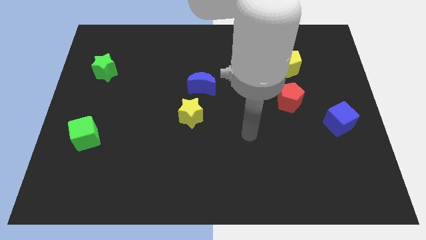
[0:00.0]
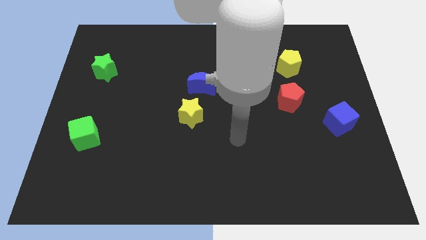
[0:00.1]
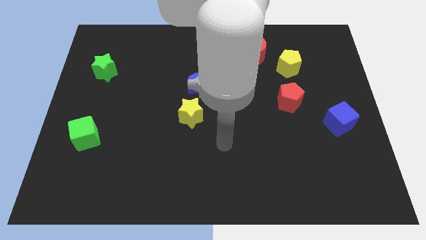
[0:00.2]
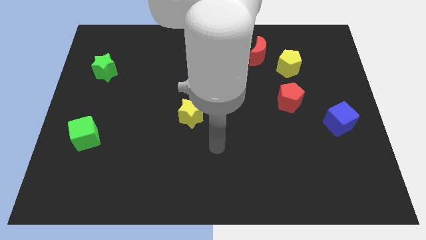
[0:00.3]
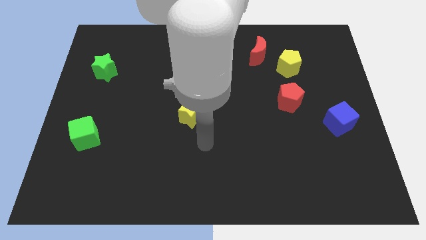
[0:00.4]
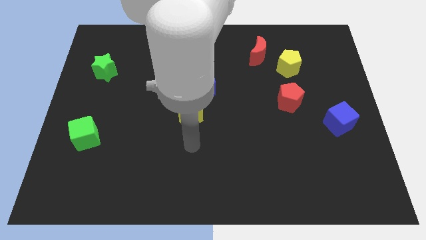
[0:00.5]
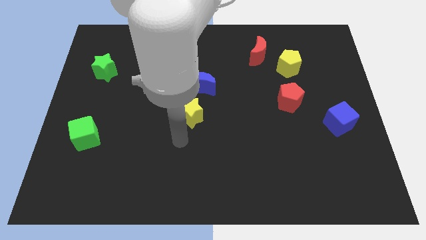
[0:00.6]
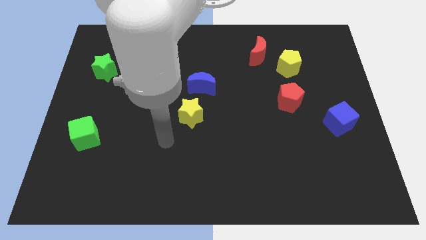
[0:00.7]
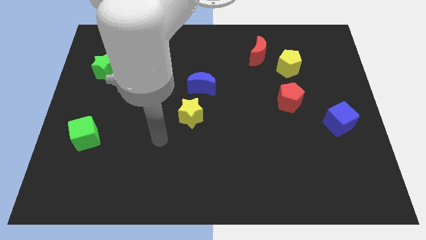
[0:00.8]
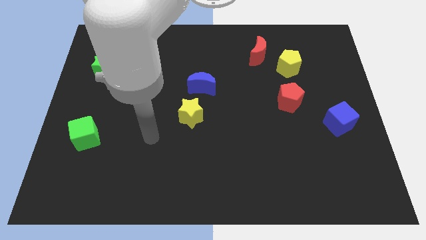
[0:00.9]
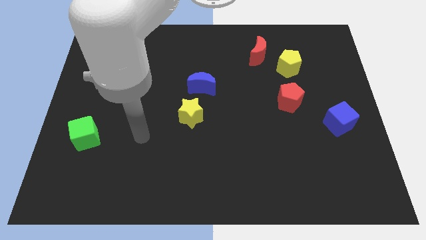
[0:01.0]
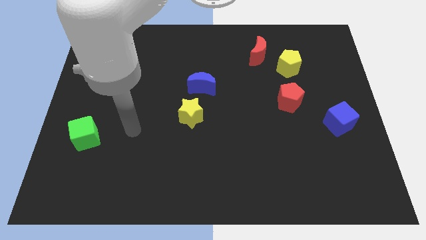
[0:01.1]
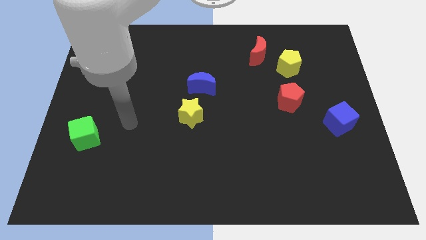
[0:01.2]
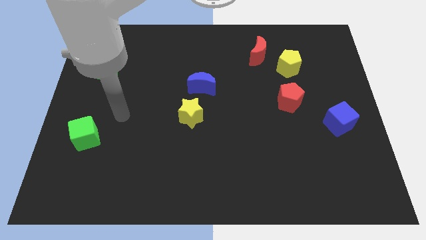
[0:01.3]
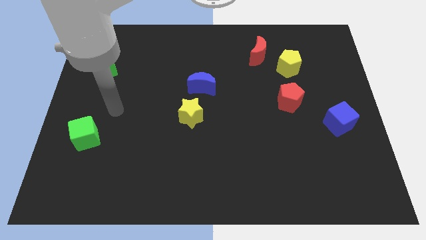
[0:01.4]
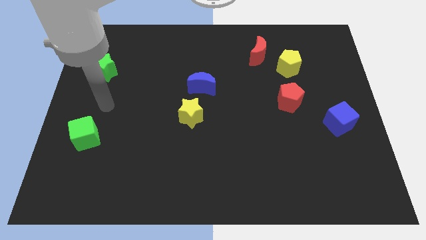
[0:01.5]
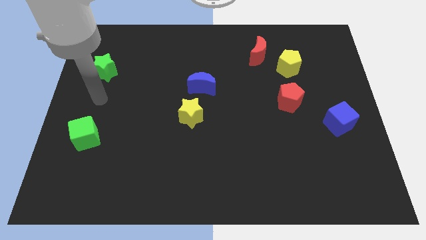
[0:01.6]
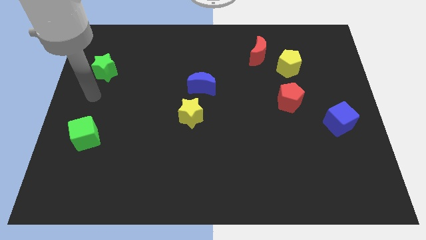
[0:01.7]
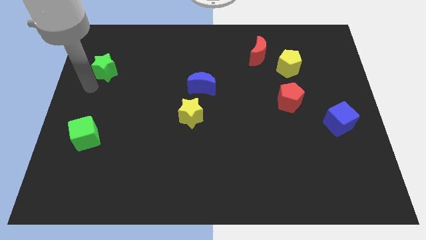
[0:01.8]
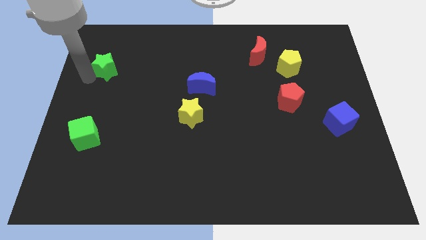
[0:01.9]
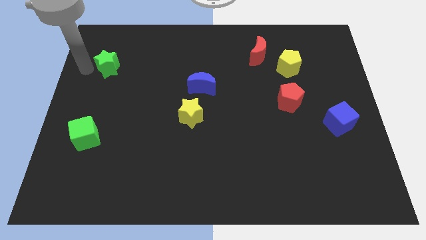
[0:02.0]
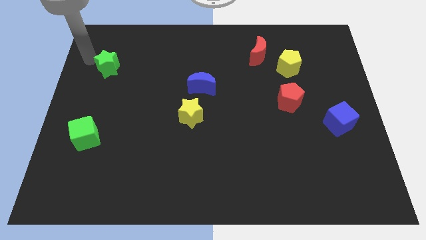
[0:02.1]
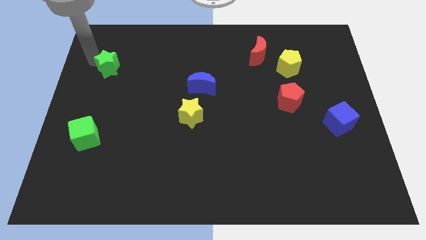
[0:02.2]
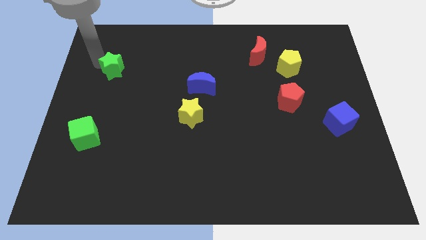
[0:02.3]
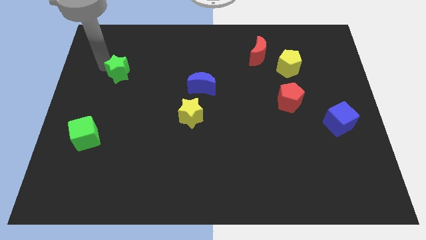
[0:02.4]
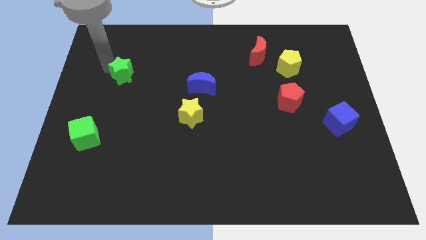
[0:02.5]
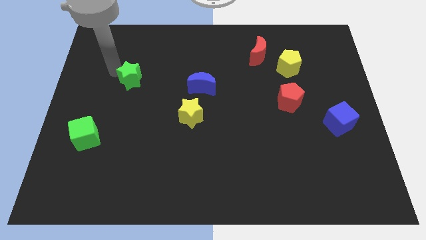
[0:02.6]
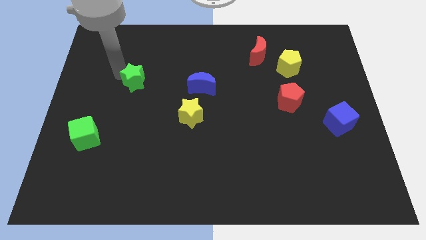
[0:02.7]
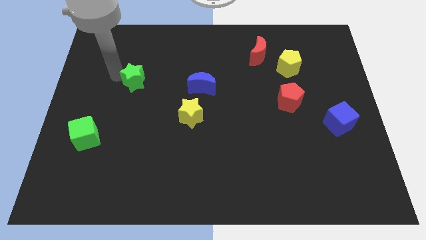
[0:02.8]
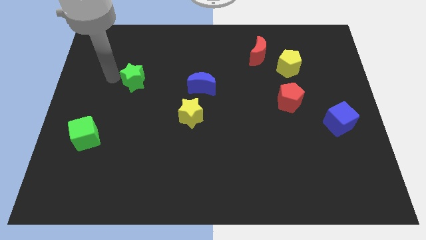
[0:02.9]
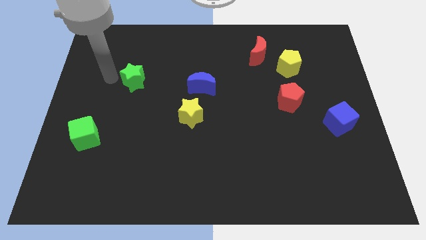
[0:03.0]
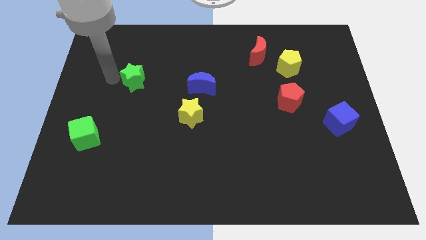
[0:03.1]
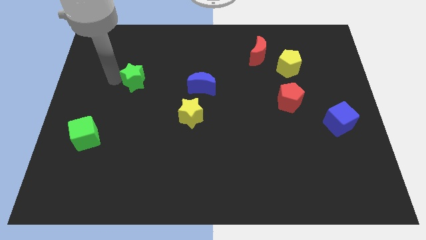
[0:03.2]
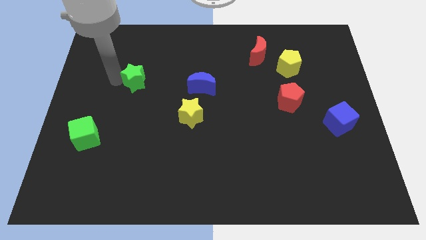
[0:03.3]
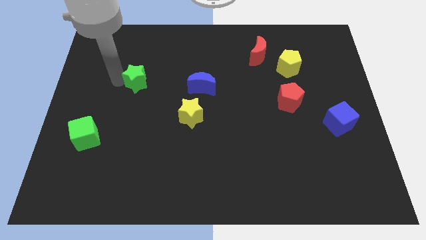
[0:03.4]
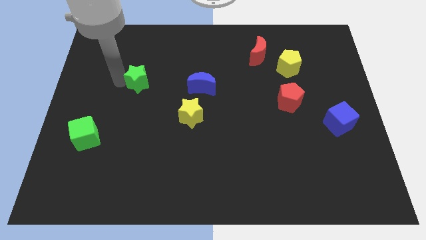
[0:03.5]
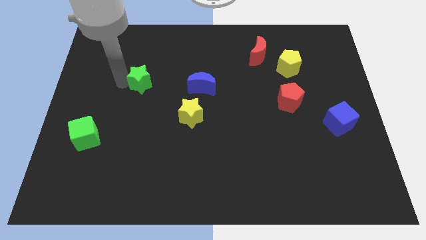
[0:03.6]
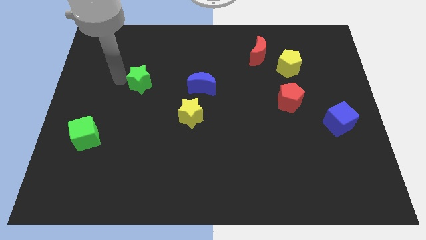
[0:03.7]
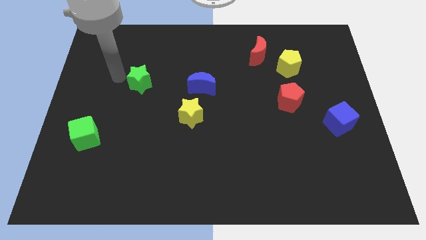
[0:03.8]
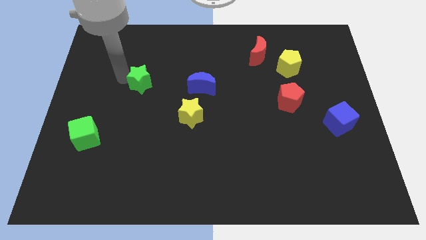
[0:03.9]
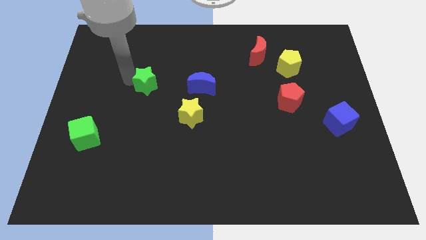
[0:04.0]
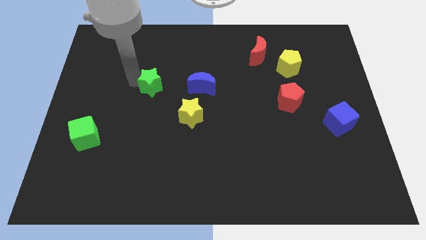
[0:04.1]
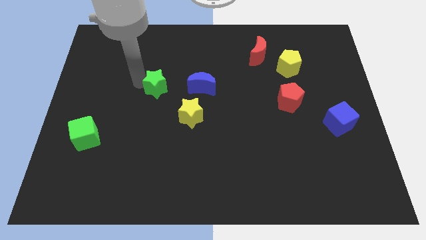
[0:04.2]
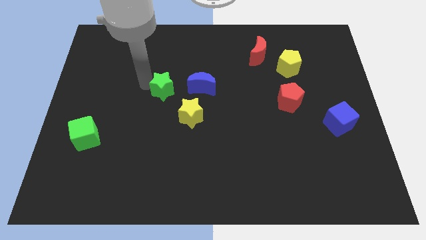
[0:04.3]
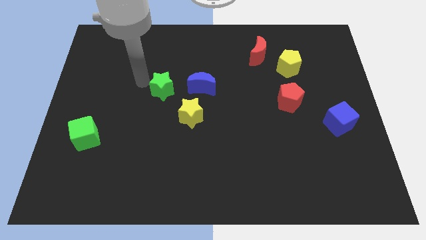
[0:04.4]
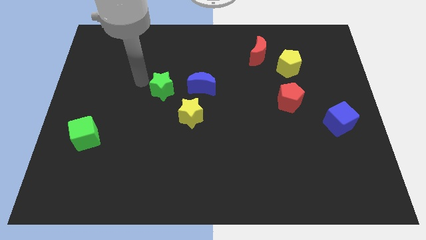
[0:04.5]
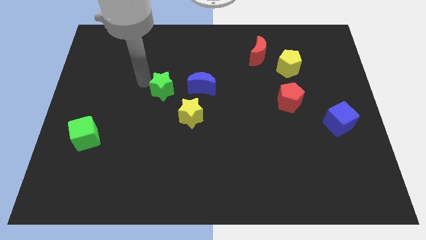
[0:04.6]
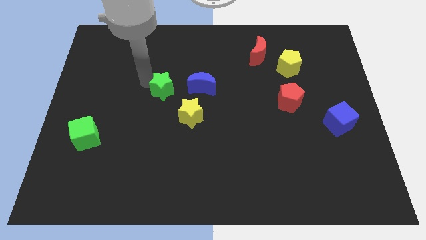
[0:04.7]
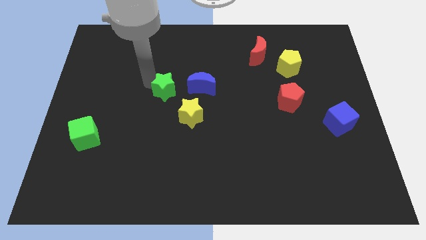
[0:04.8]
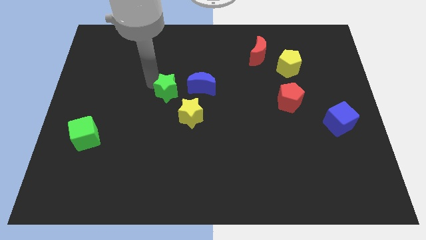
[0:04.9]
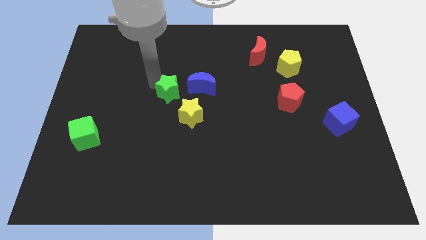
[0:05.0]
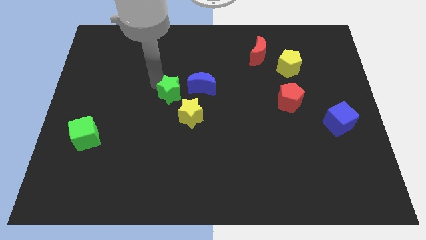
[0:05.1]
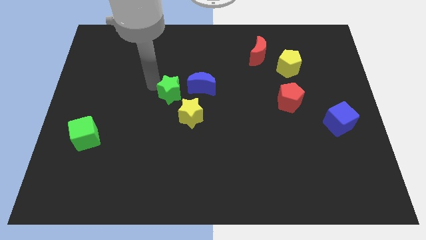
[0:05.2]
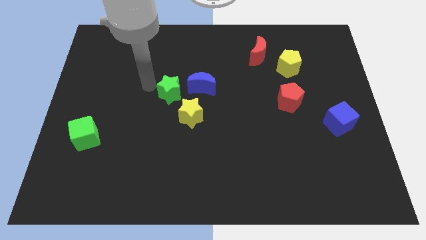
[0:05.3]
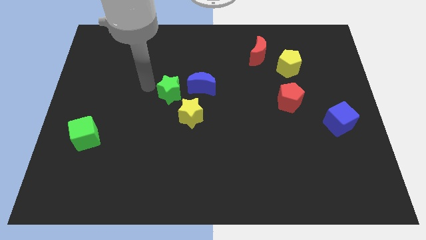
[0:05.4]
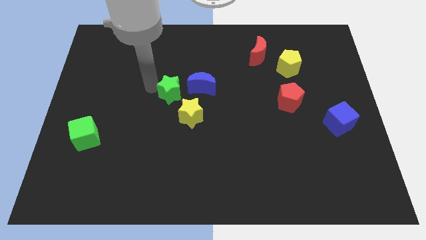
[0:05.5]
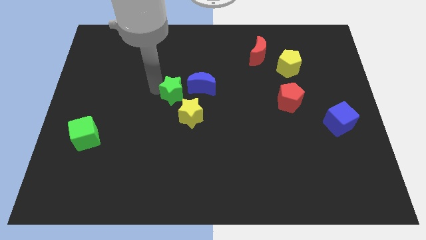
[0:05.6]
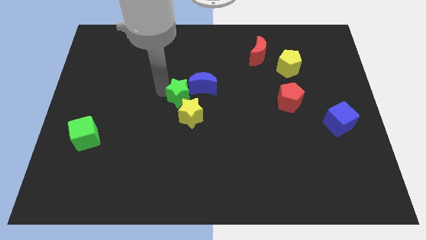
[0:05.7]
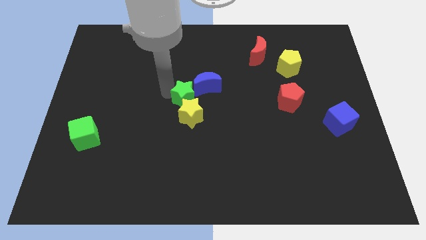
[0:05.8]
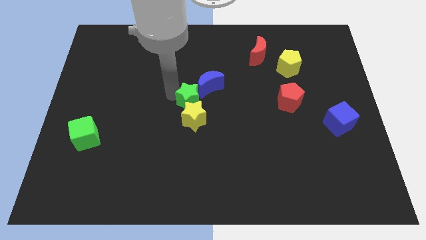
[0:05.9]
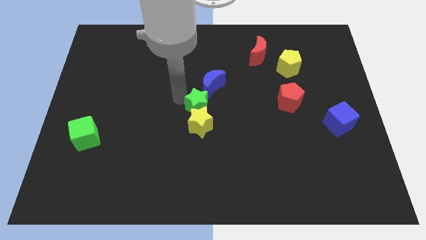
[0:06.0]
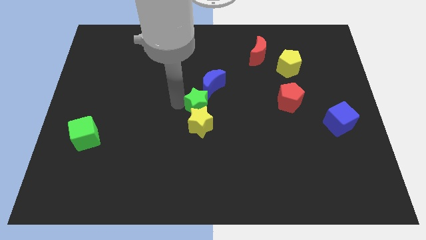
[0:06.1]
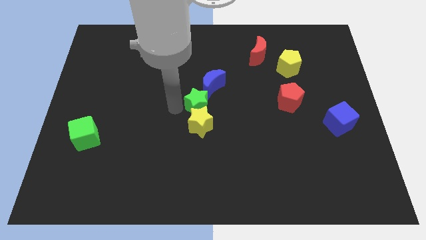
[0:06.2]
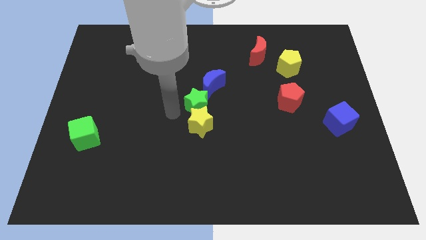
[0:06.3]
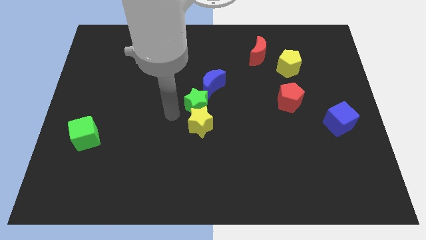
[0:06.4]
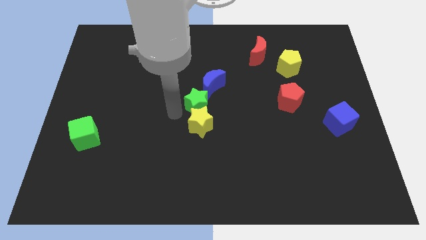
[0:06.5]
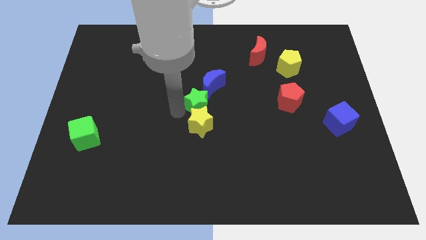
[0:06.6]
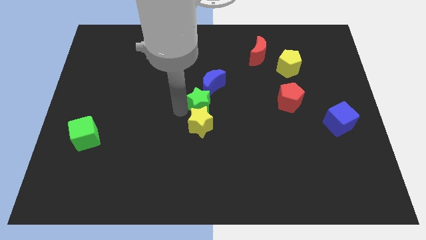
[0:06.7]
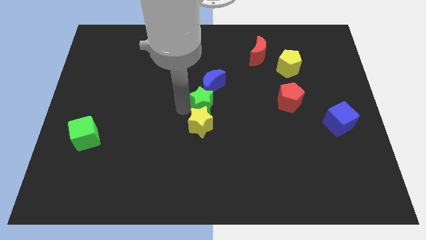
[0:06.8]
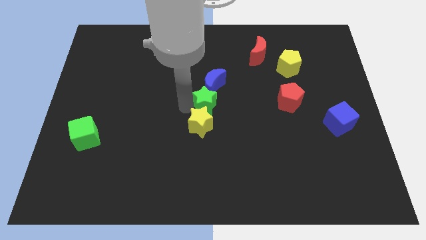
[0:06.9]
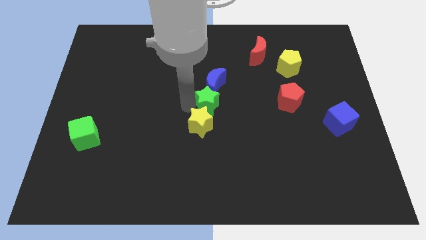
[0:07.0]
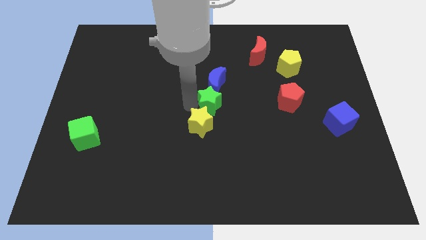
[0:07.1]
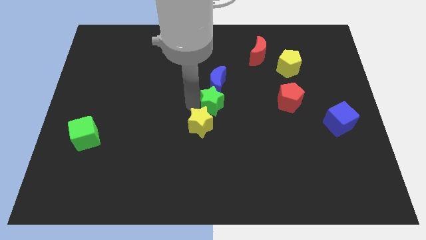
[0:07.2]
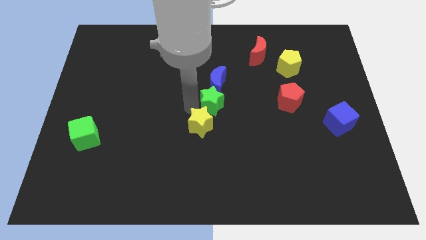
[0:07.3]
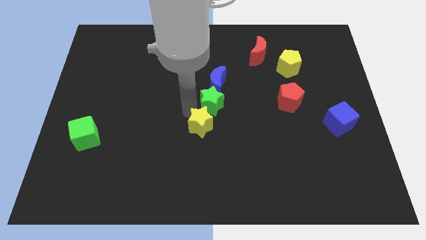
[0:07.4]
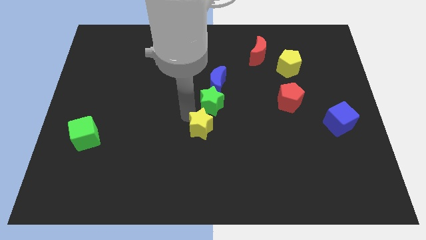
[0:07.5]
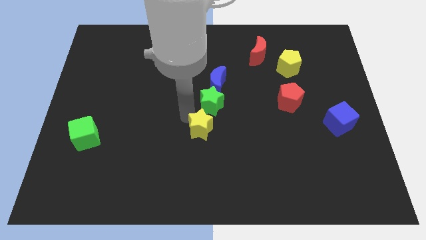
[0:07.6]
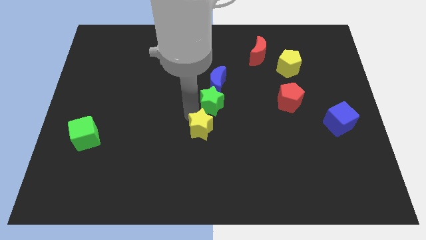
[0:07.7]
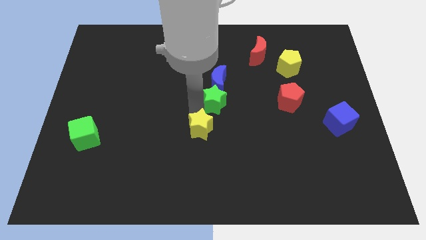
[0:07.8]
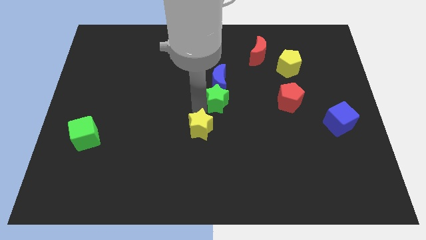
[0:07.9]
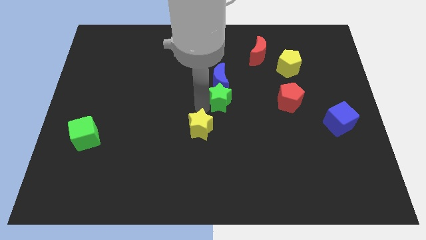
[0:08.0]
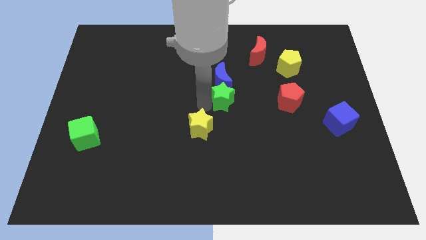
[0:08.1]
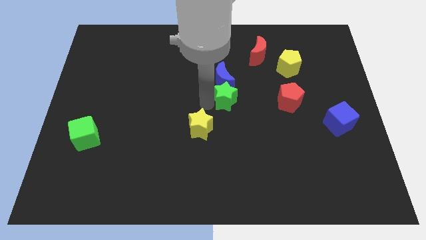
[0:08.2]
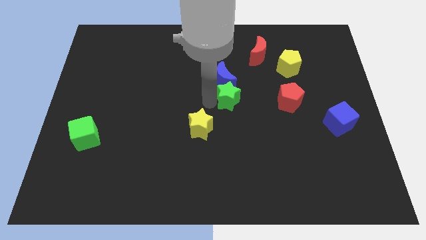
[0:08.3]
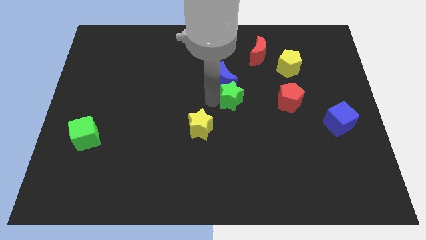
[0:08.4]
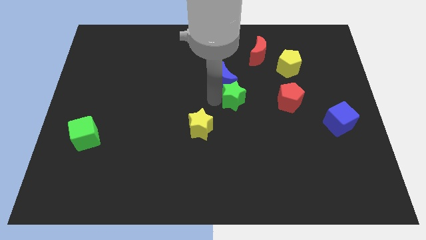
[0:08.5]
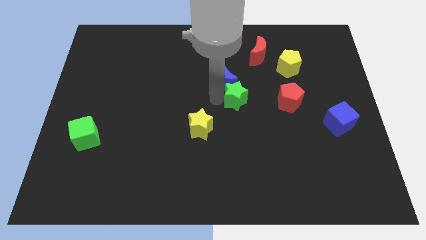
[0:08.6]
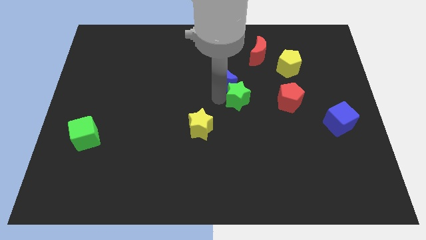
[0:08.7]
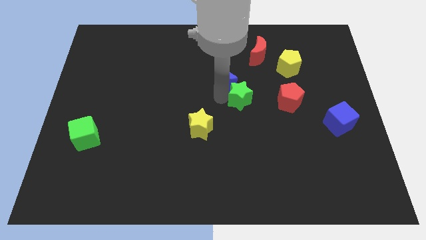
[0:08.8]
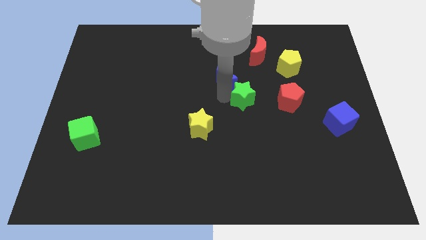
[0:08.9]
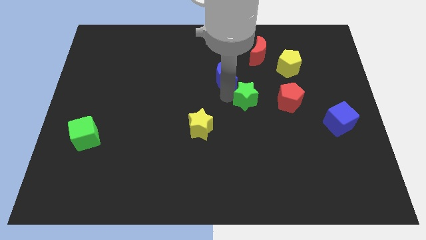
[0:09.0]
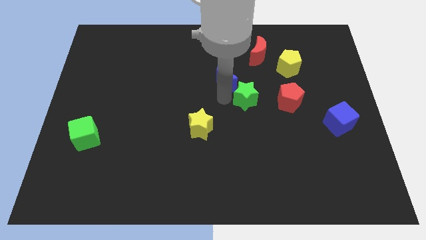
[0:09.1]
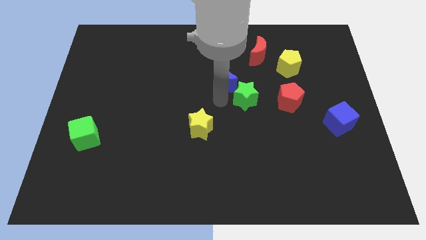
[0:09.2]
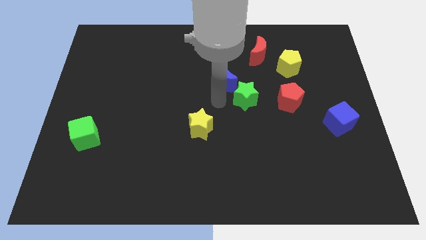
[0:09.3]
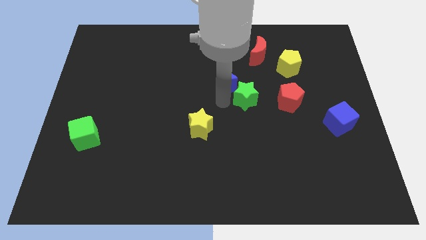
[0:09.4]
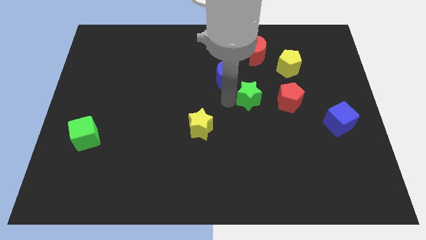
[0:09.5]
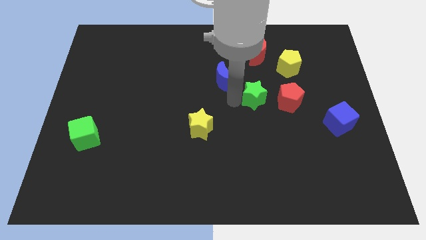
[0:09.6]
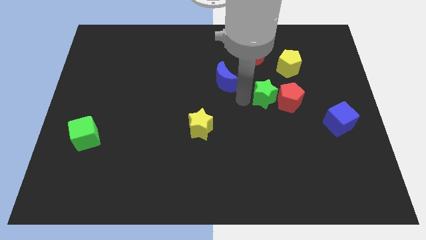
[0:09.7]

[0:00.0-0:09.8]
move the green star towards the red pentagon
